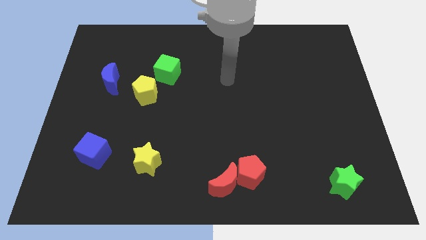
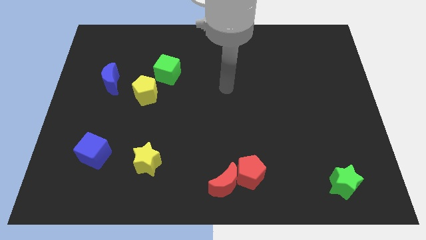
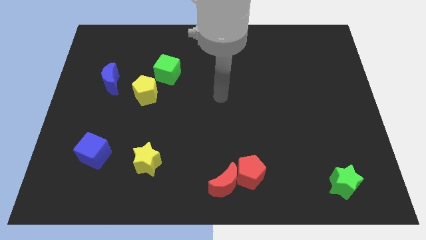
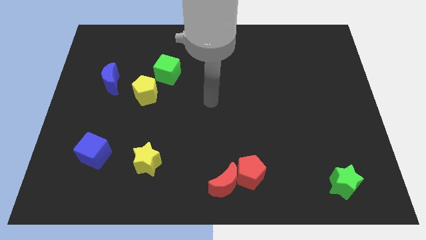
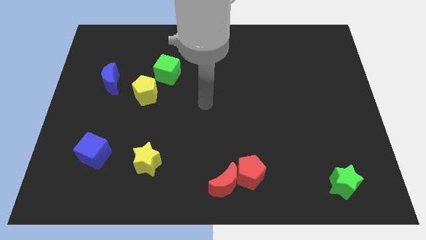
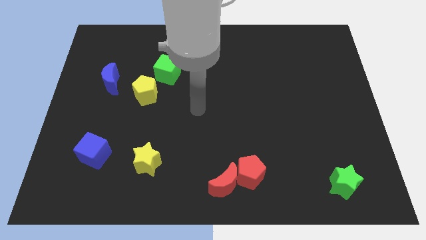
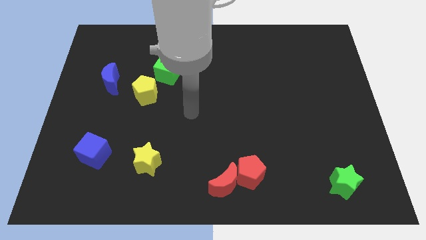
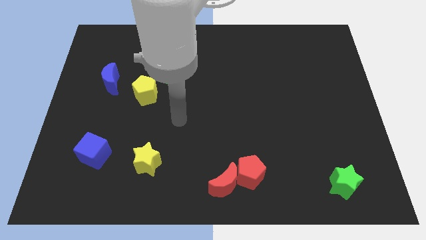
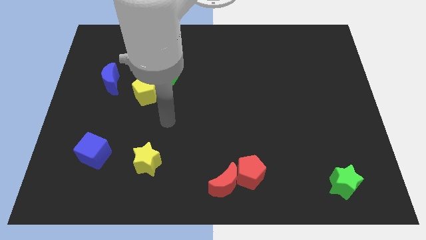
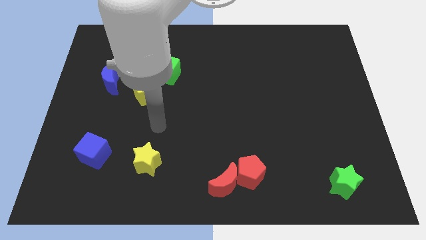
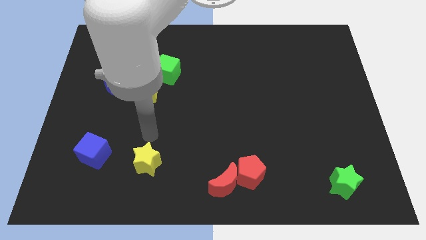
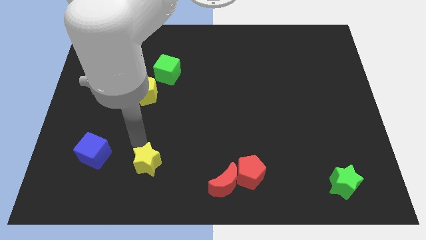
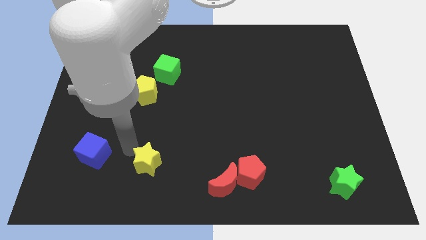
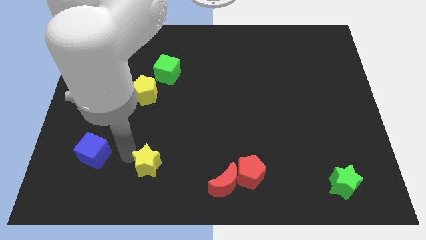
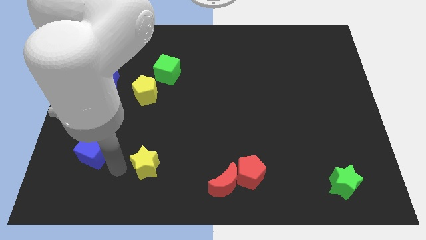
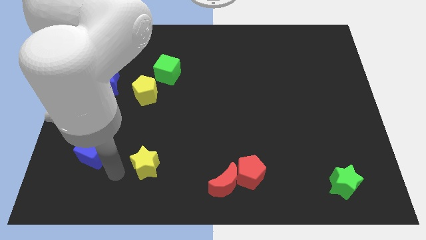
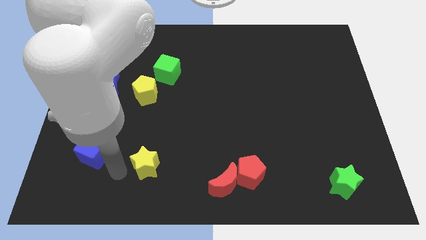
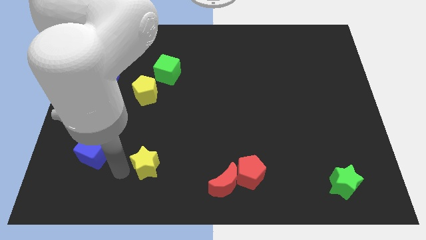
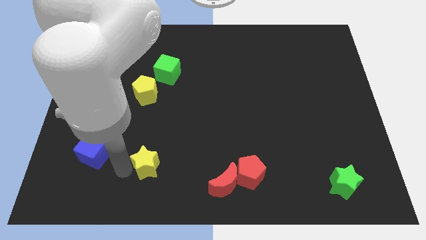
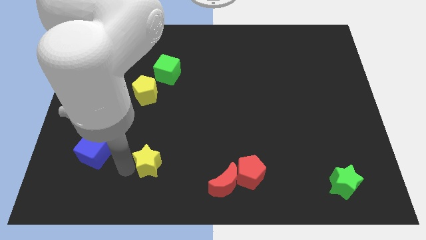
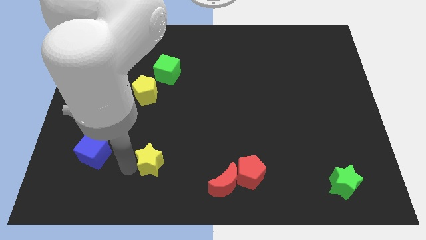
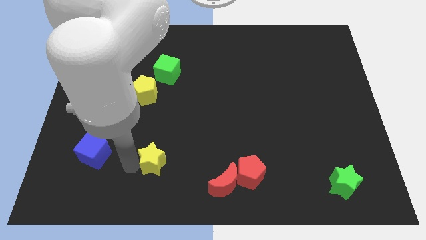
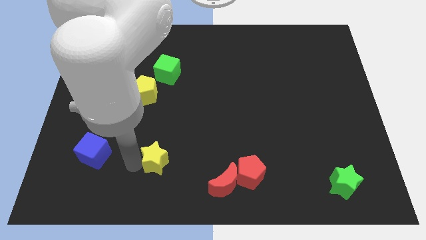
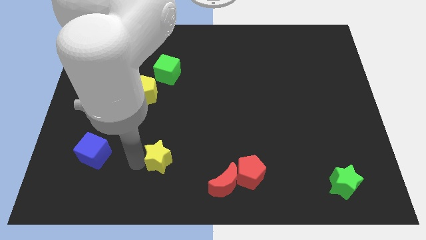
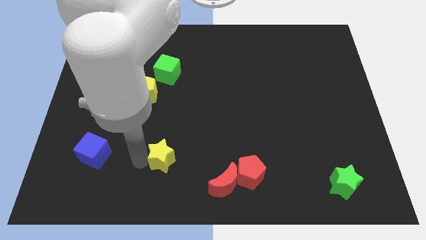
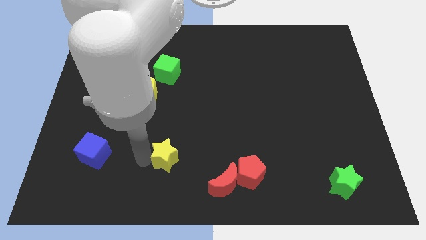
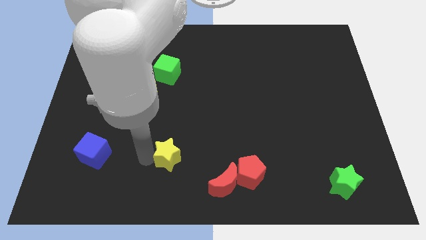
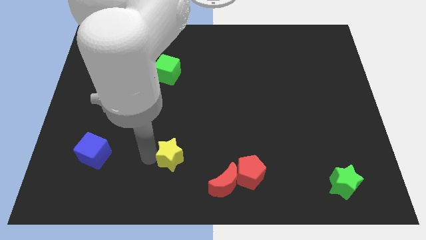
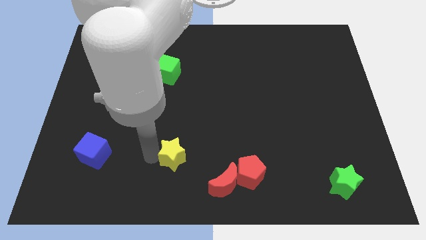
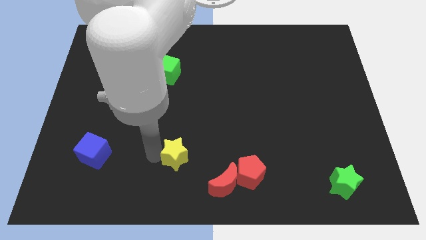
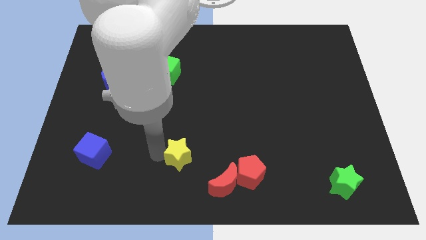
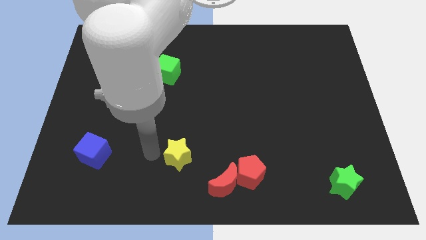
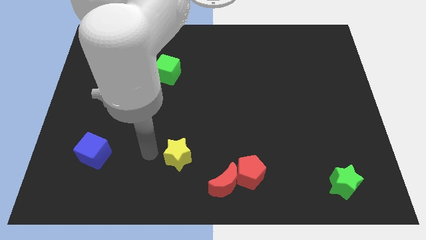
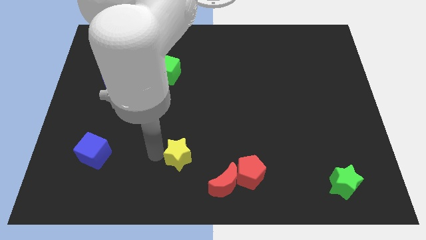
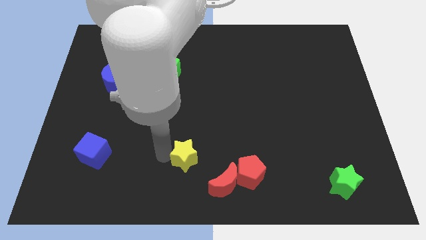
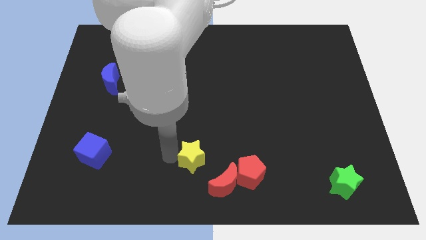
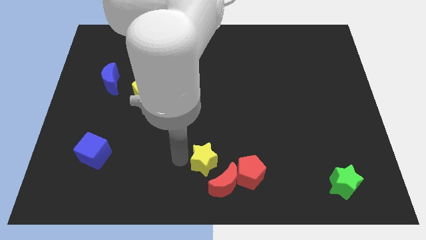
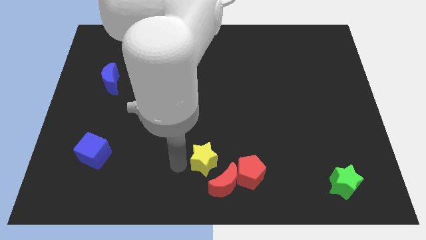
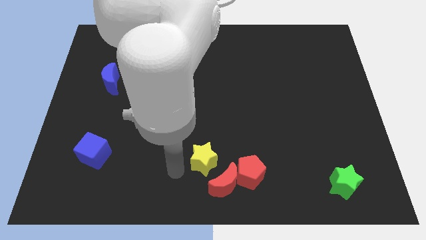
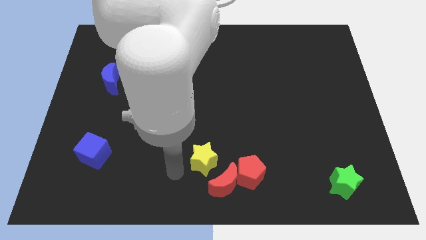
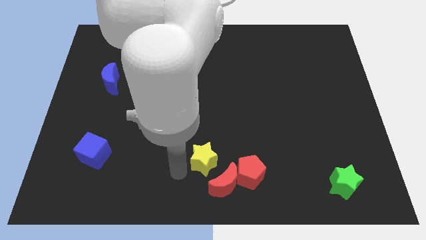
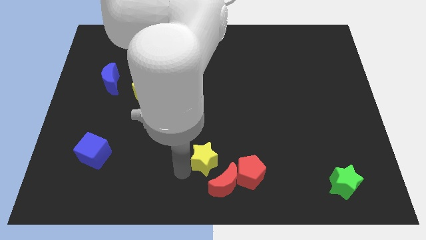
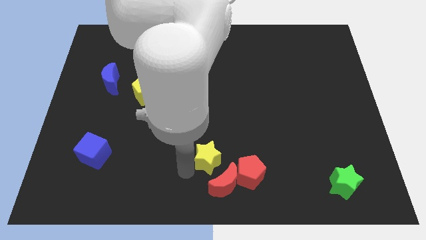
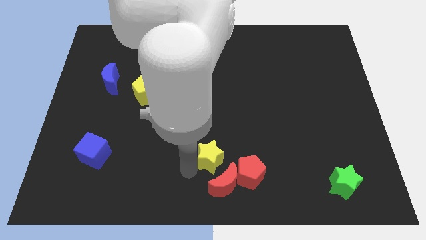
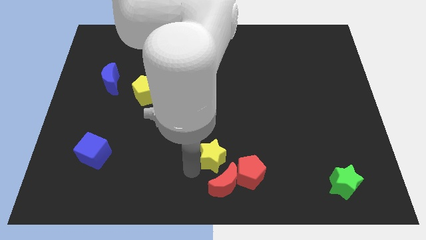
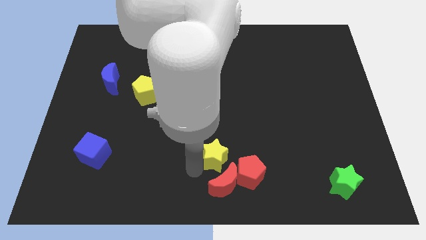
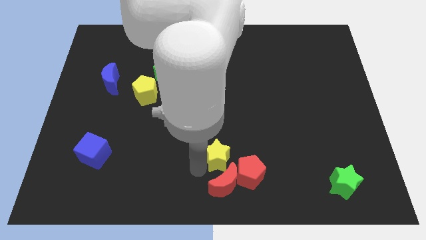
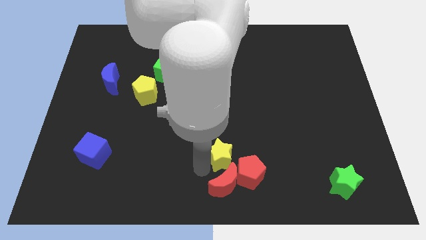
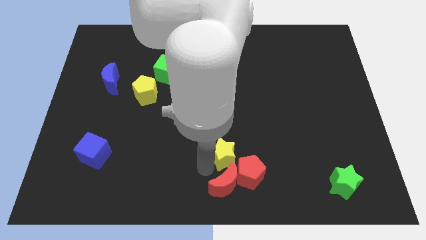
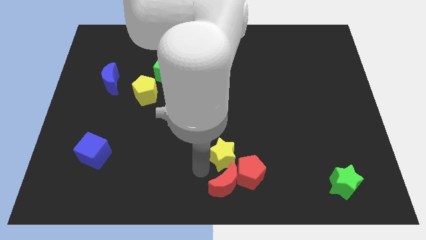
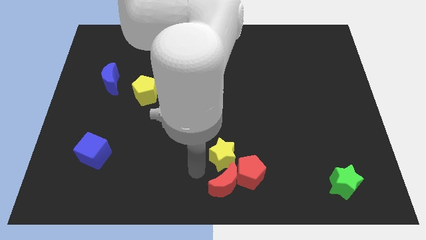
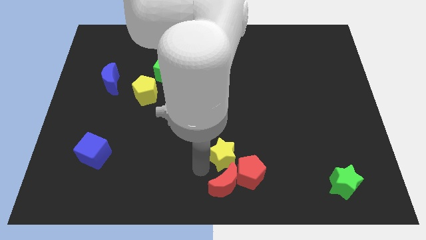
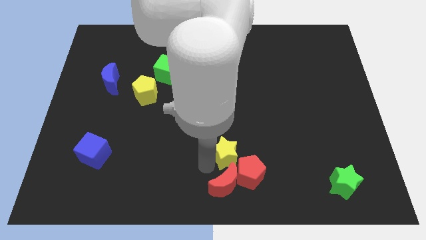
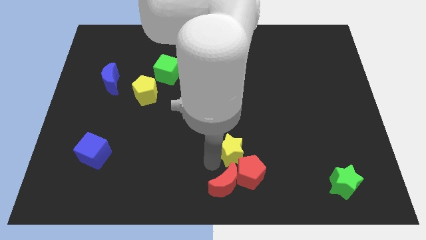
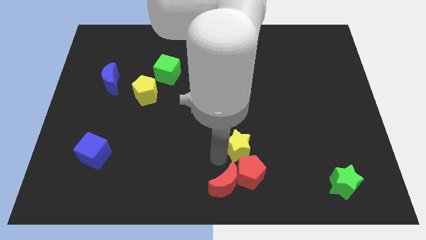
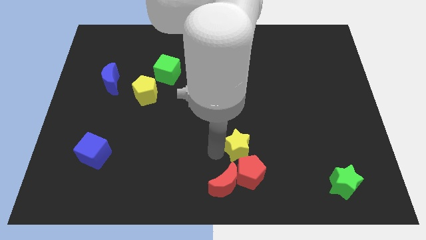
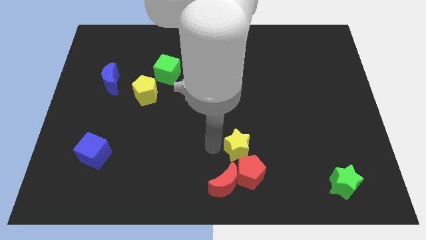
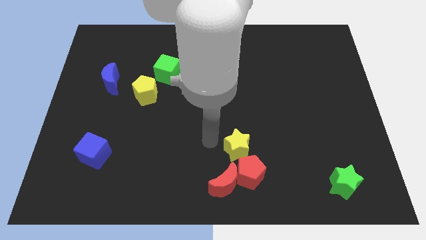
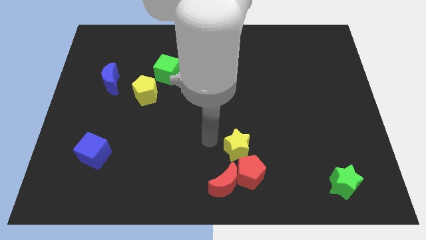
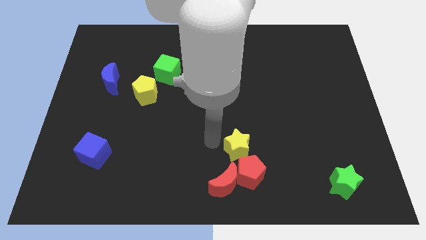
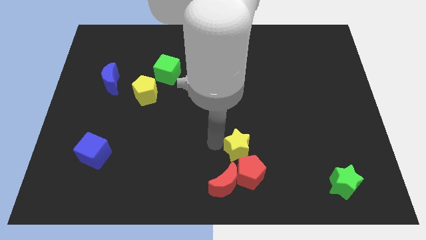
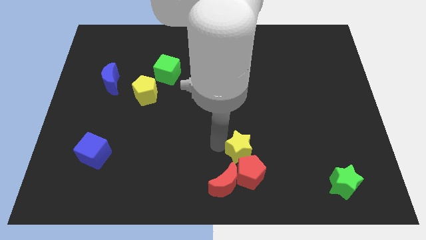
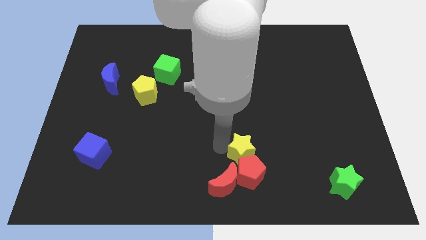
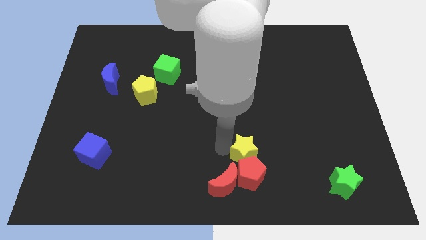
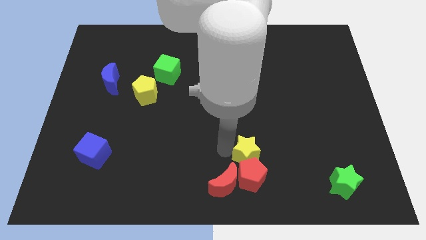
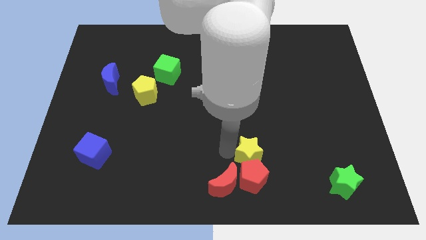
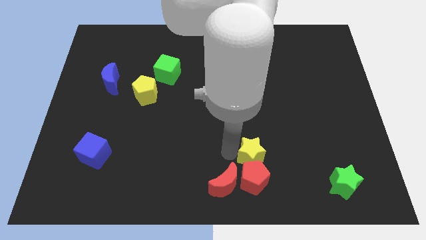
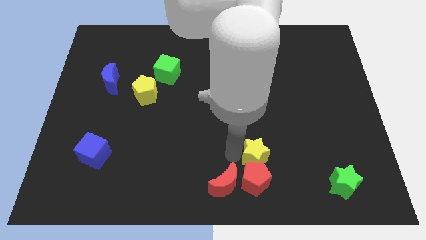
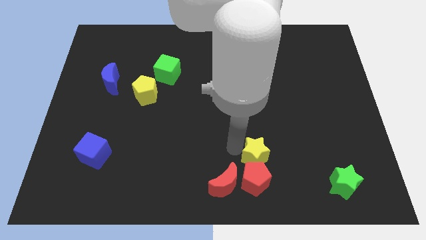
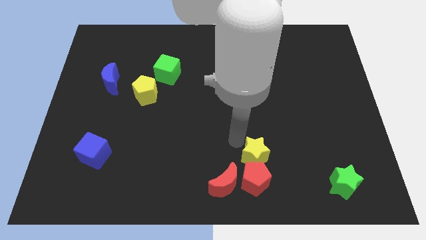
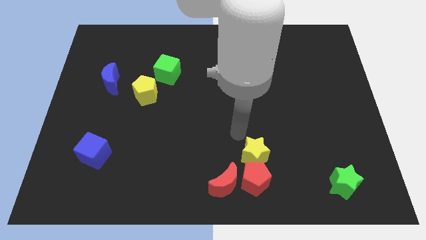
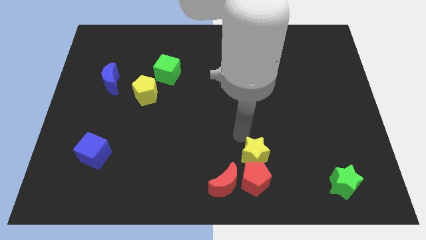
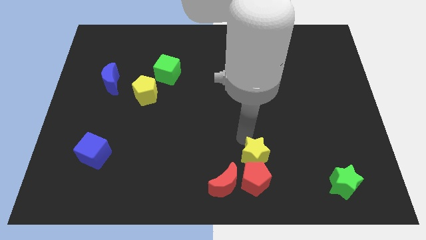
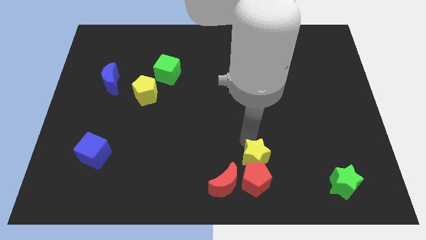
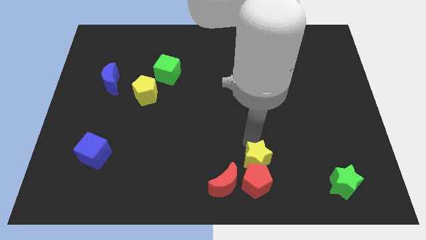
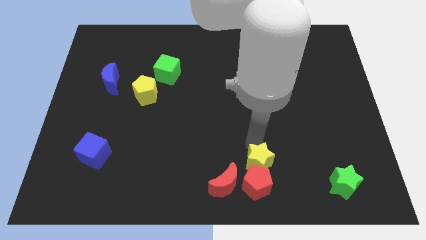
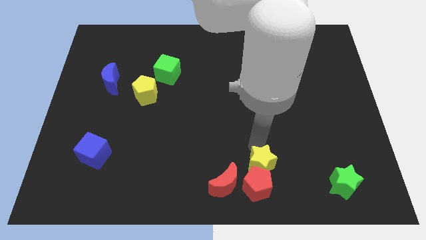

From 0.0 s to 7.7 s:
put the yellow star just right of the red moon

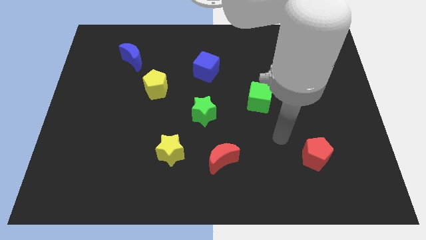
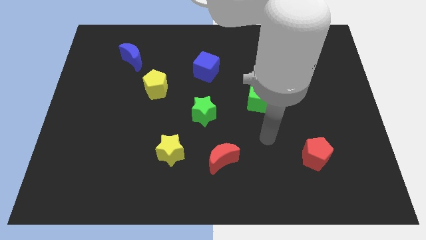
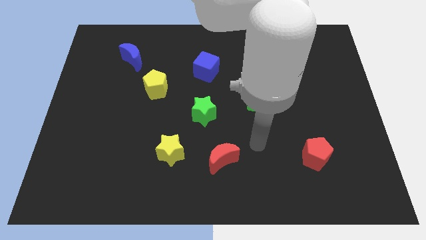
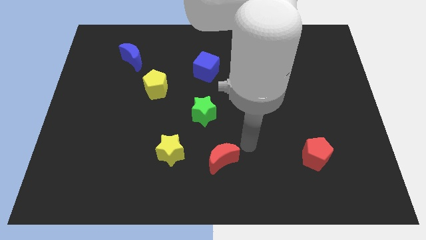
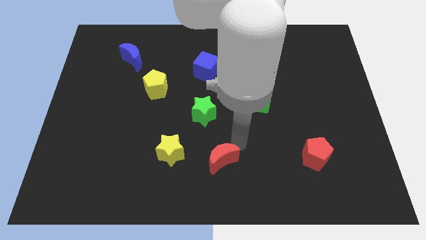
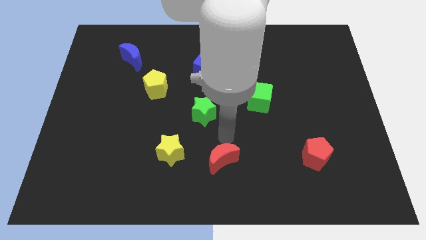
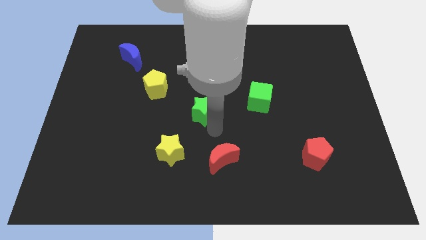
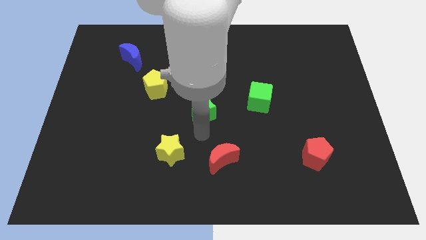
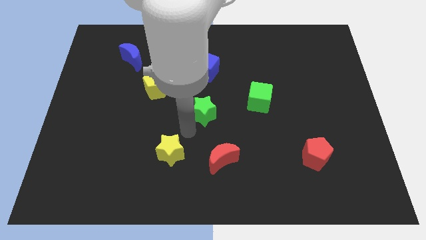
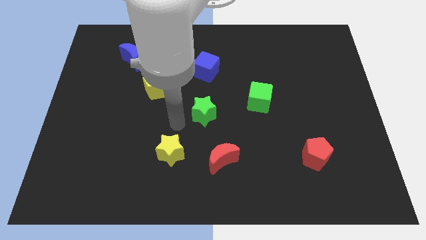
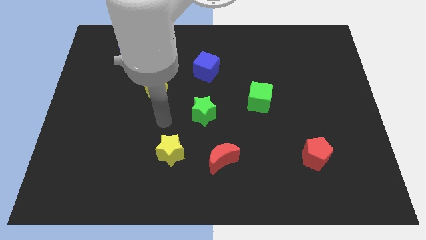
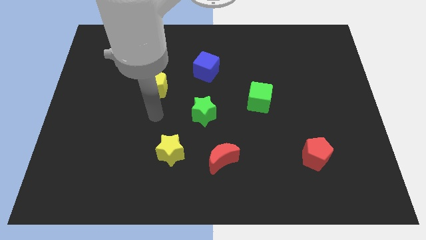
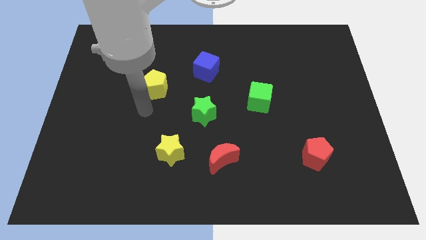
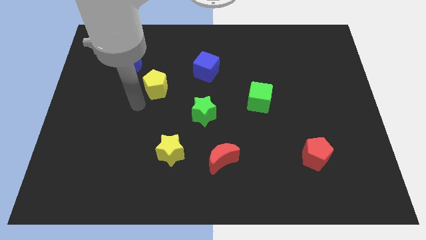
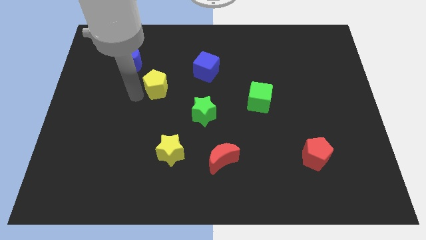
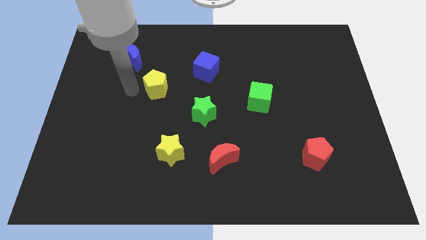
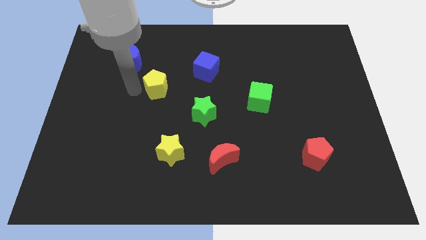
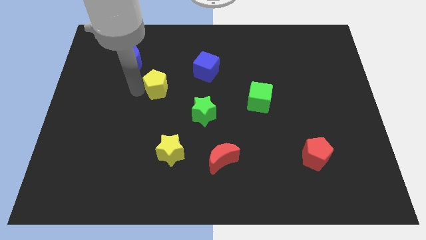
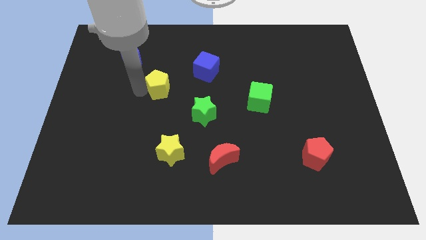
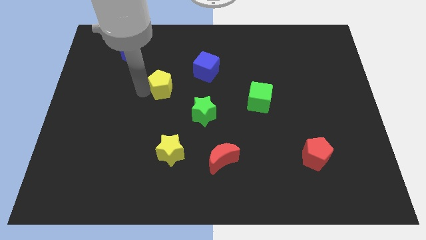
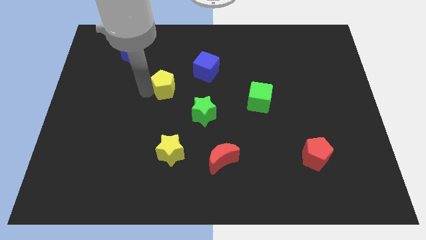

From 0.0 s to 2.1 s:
slide the yellow pentagon to the bottom left of the blue cube
